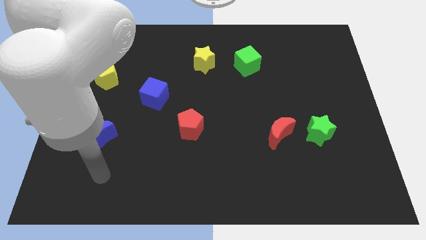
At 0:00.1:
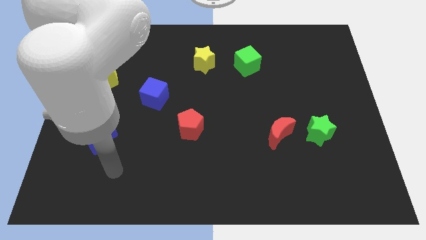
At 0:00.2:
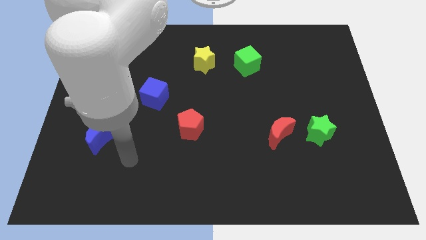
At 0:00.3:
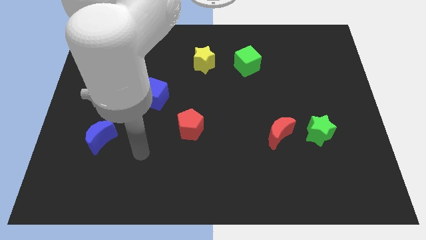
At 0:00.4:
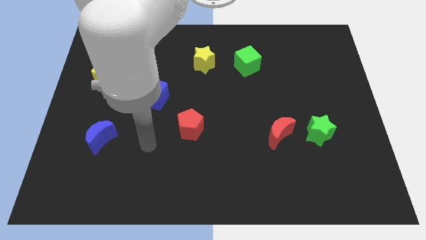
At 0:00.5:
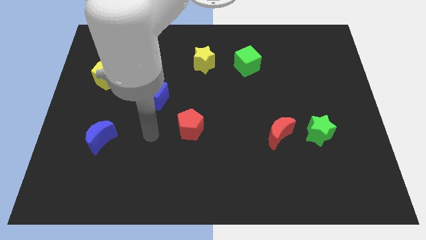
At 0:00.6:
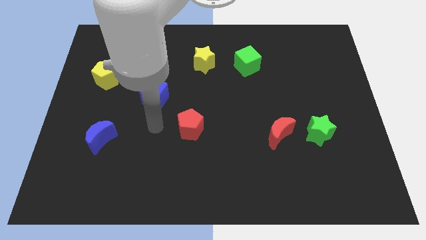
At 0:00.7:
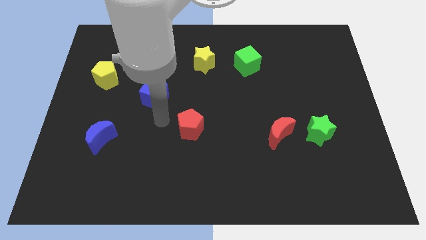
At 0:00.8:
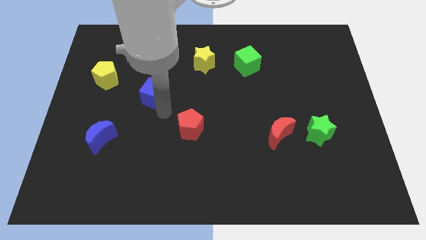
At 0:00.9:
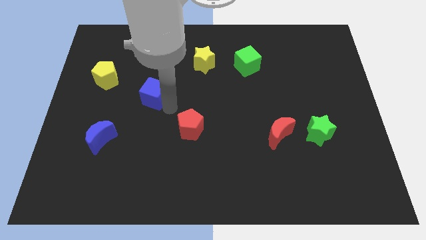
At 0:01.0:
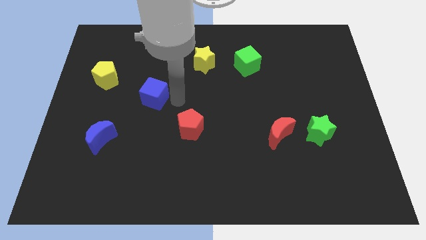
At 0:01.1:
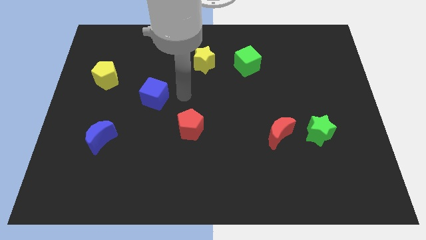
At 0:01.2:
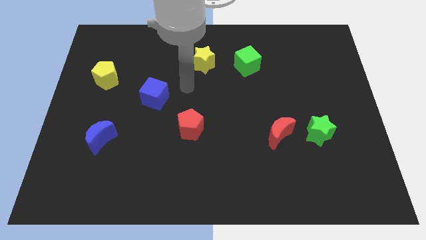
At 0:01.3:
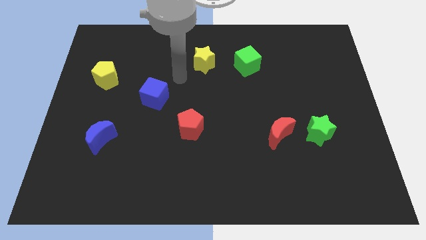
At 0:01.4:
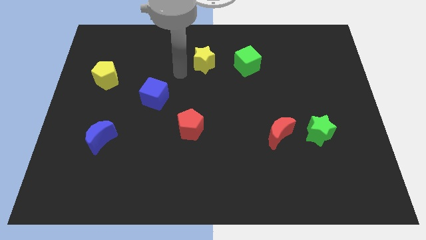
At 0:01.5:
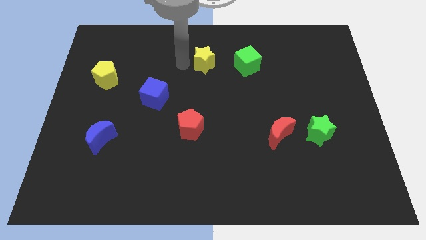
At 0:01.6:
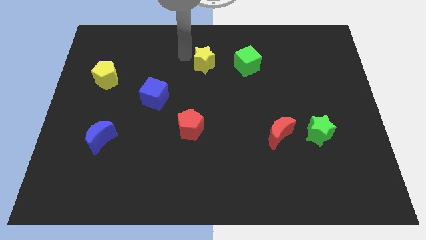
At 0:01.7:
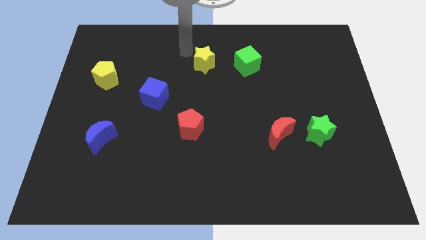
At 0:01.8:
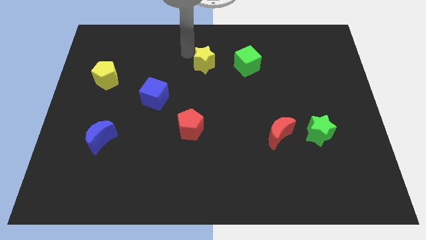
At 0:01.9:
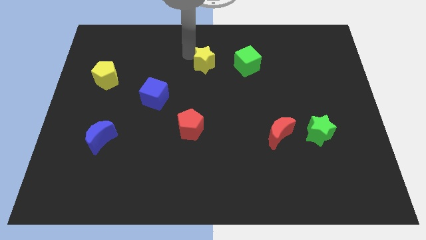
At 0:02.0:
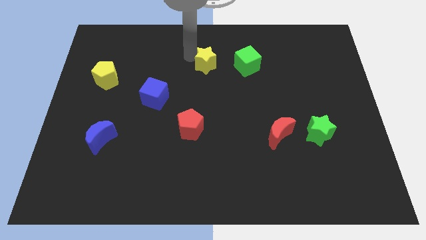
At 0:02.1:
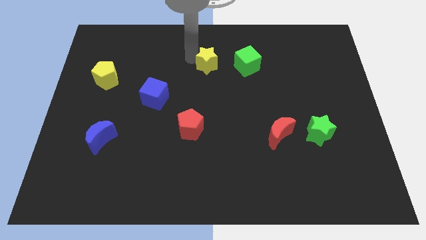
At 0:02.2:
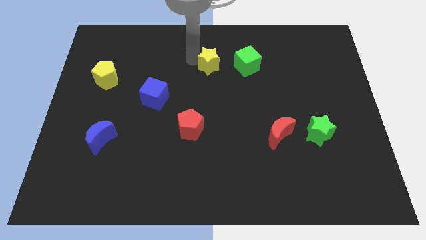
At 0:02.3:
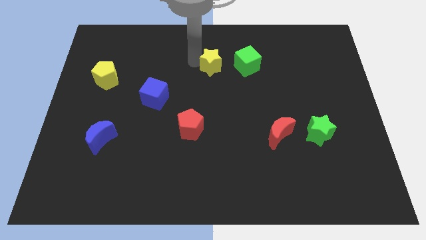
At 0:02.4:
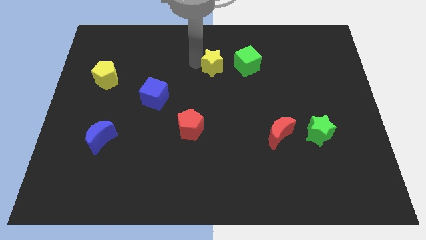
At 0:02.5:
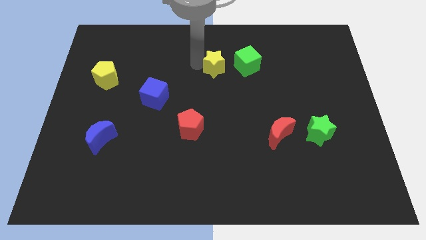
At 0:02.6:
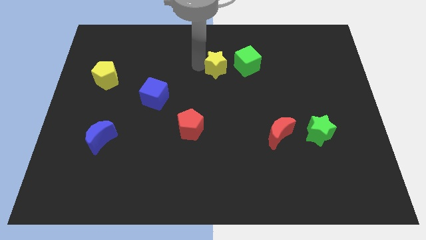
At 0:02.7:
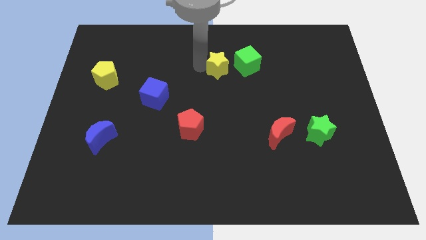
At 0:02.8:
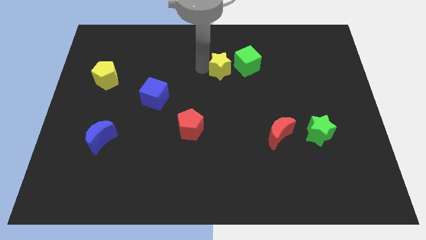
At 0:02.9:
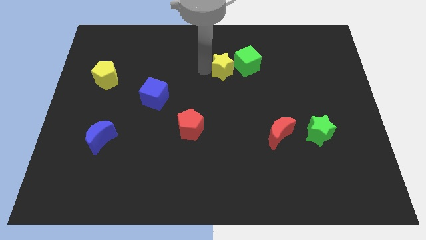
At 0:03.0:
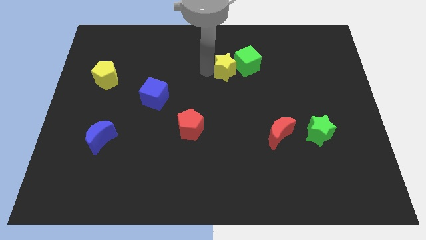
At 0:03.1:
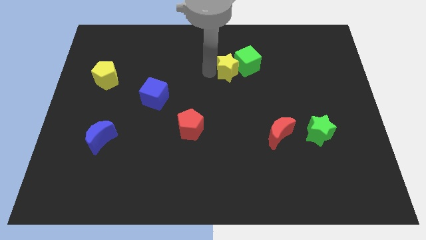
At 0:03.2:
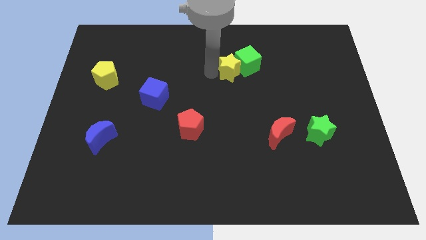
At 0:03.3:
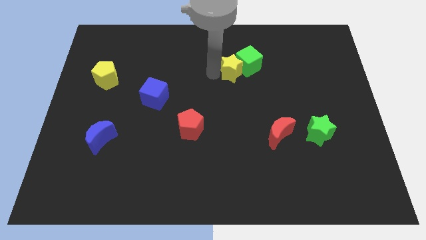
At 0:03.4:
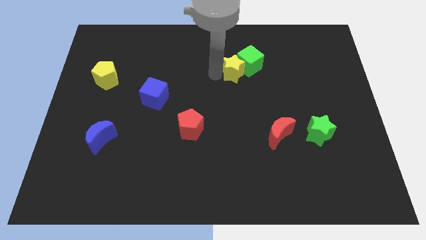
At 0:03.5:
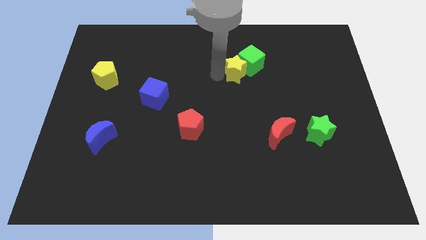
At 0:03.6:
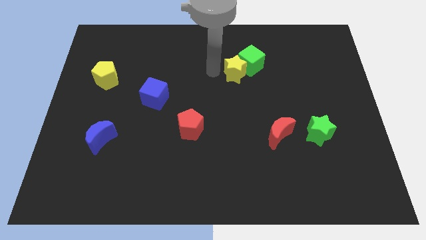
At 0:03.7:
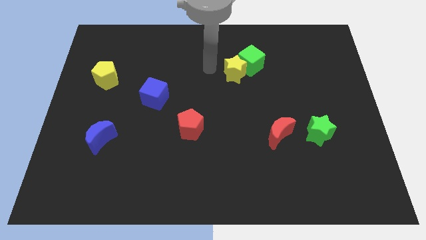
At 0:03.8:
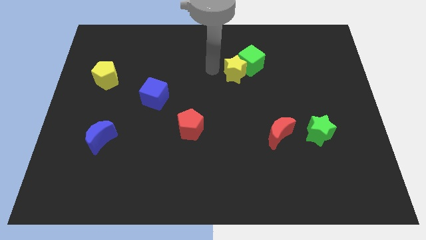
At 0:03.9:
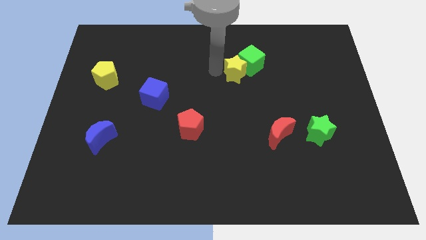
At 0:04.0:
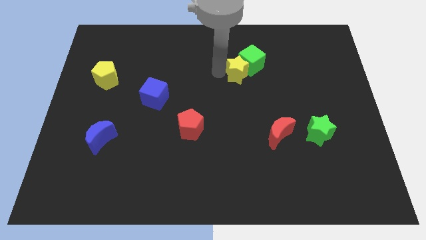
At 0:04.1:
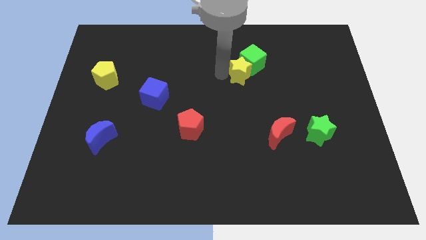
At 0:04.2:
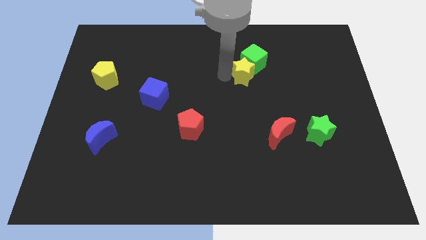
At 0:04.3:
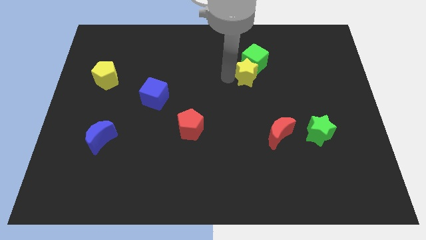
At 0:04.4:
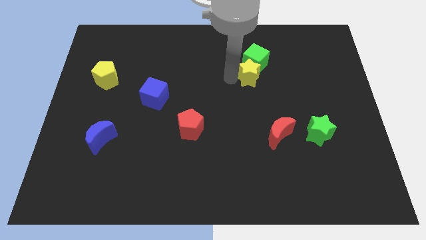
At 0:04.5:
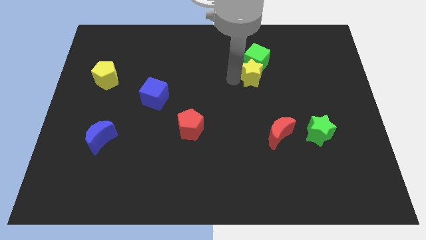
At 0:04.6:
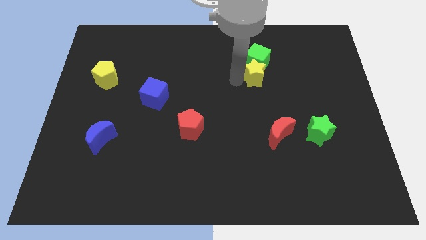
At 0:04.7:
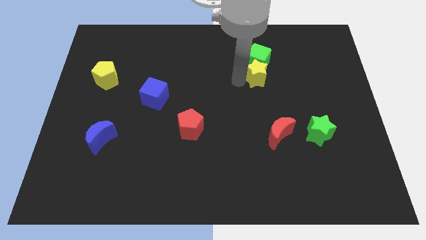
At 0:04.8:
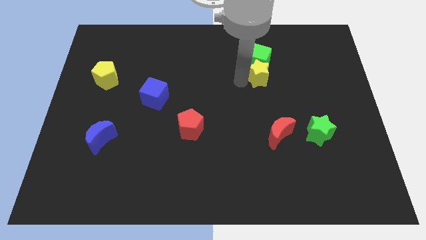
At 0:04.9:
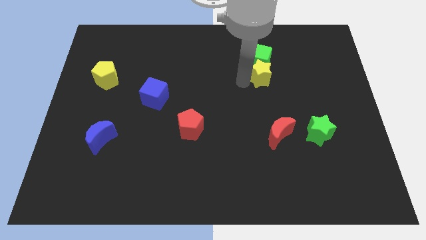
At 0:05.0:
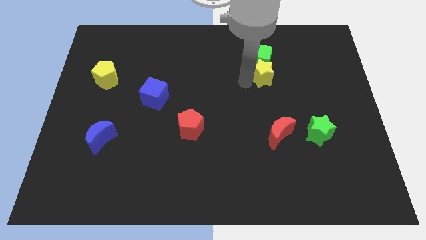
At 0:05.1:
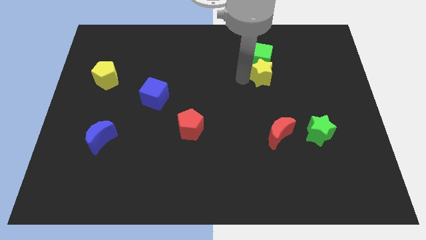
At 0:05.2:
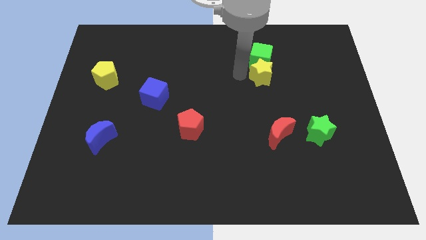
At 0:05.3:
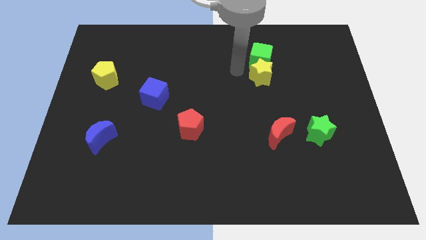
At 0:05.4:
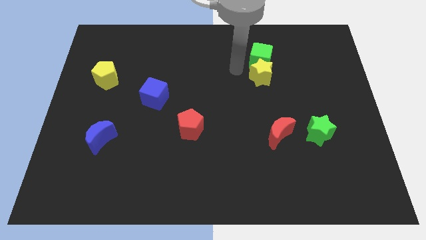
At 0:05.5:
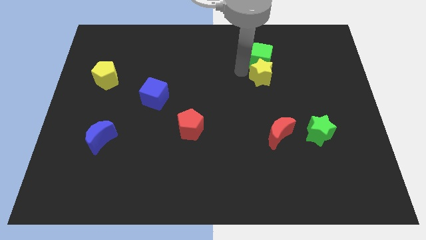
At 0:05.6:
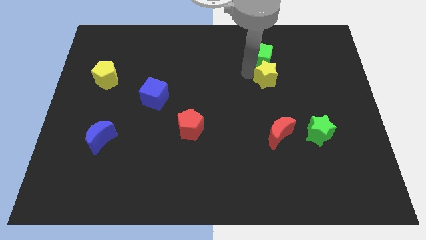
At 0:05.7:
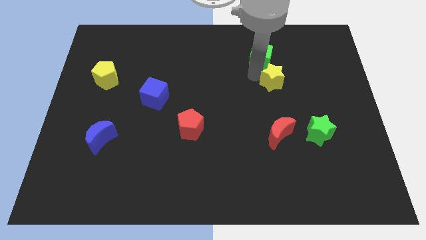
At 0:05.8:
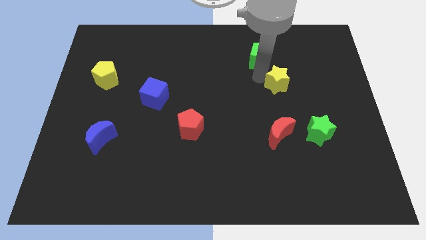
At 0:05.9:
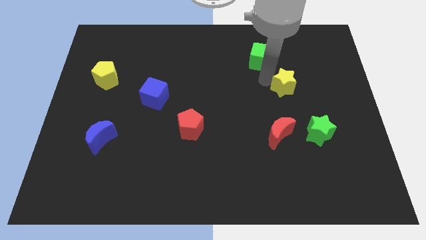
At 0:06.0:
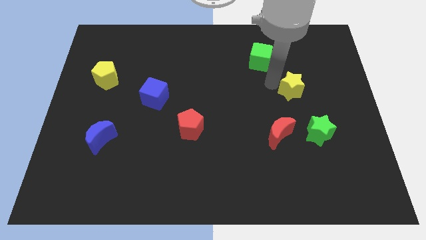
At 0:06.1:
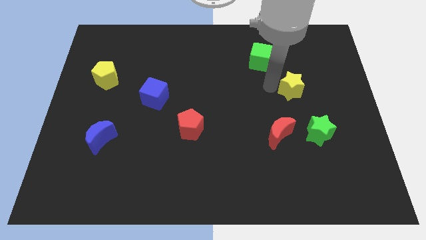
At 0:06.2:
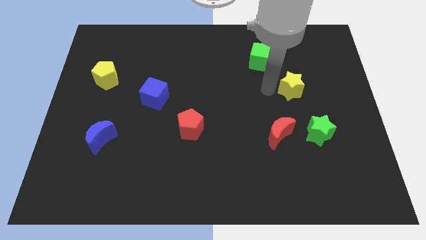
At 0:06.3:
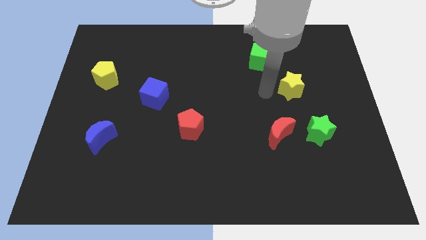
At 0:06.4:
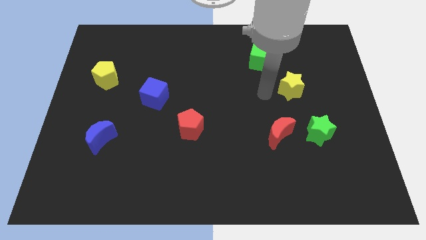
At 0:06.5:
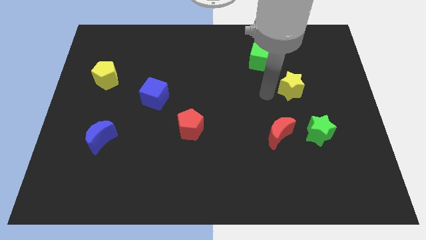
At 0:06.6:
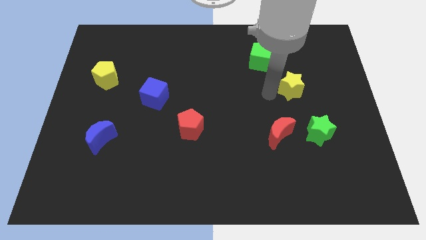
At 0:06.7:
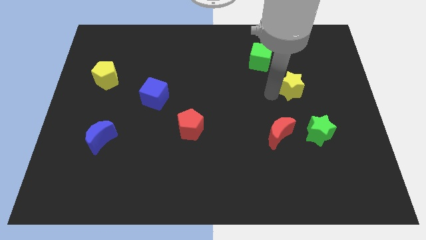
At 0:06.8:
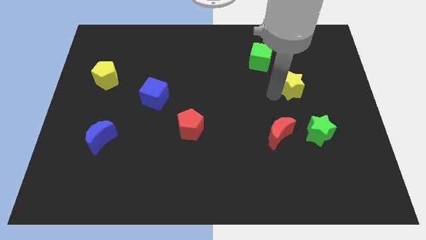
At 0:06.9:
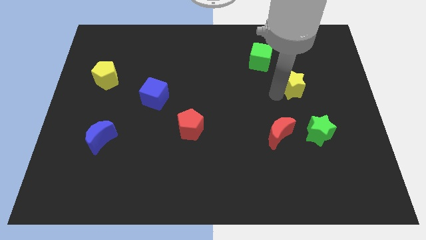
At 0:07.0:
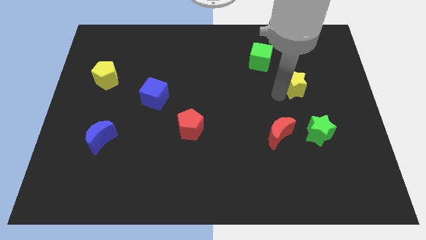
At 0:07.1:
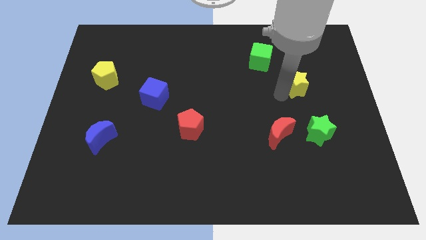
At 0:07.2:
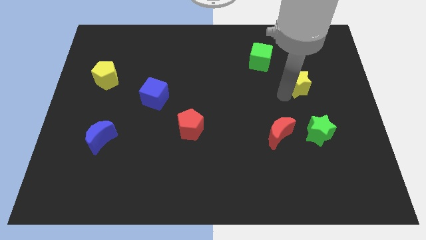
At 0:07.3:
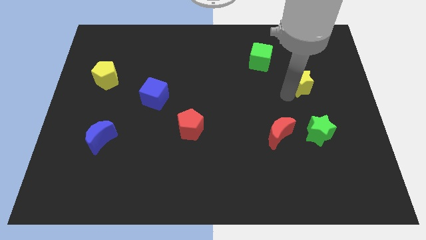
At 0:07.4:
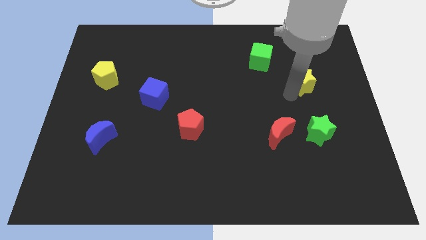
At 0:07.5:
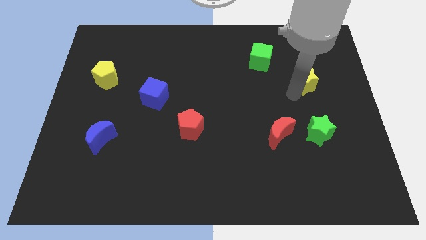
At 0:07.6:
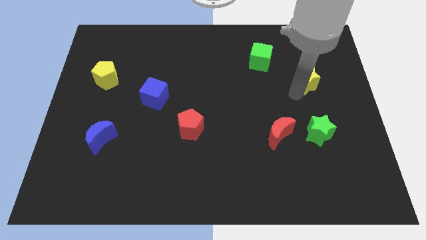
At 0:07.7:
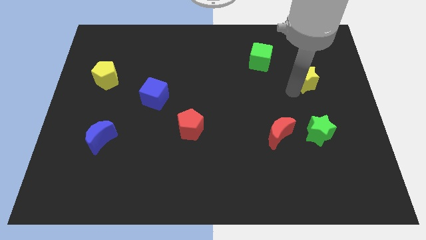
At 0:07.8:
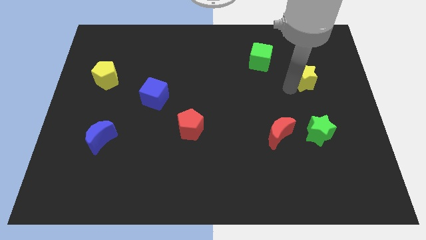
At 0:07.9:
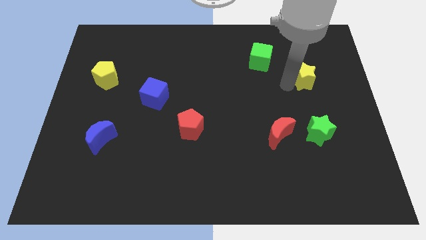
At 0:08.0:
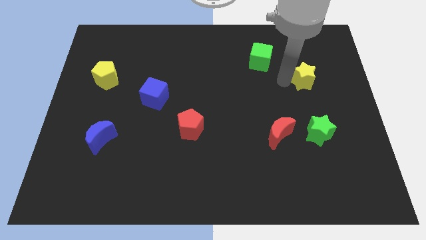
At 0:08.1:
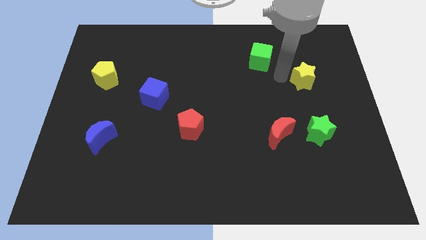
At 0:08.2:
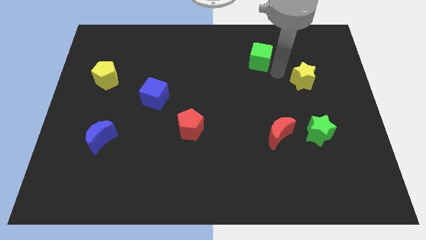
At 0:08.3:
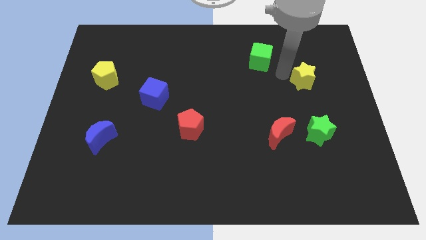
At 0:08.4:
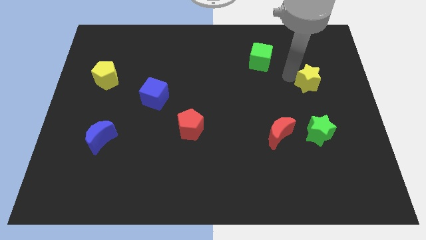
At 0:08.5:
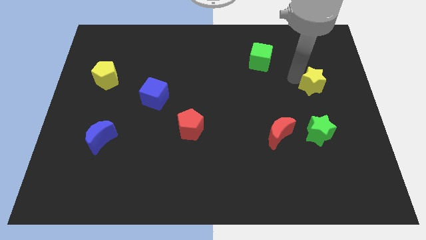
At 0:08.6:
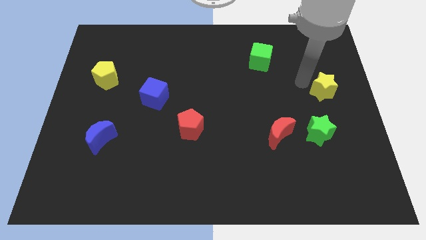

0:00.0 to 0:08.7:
move the yellow star to the center right
